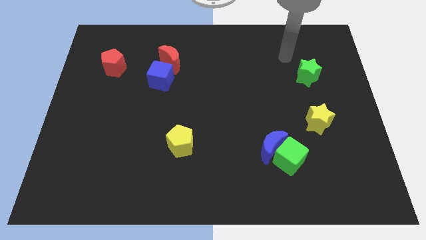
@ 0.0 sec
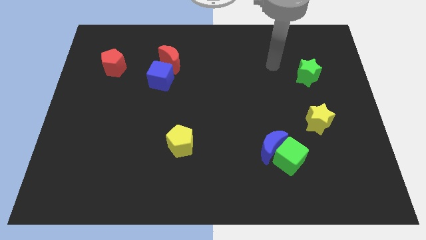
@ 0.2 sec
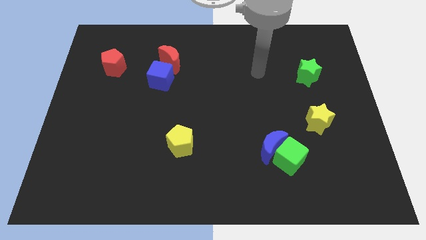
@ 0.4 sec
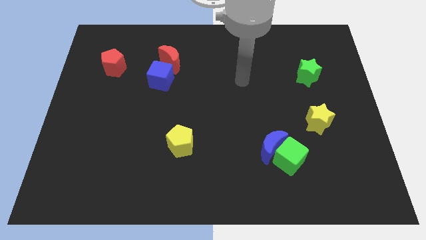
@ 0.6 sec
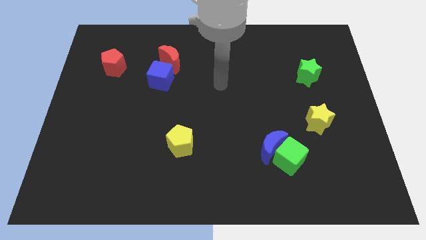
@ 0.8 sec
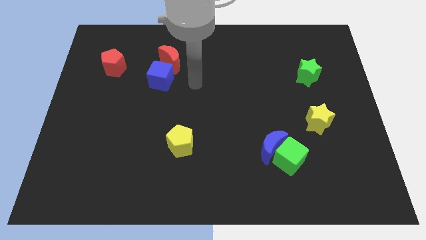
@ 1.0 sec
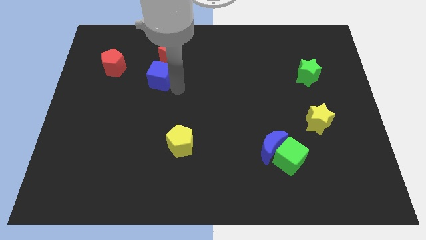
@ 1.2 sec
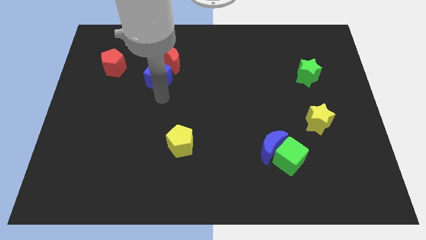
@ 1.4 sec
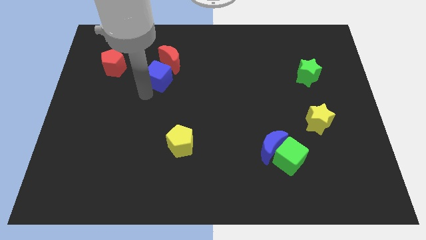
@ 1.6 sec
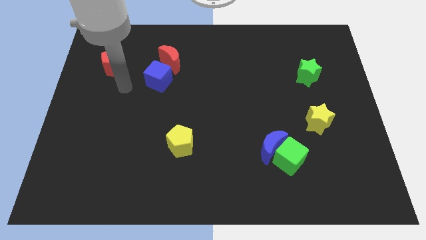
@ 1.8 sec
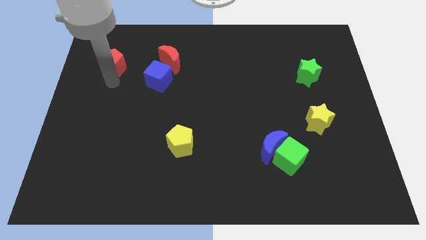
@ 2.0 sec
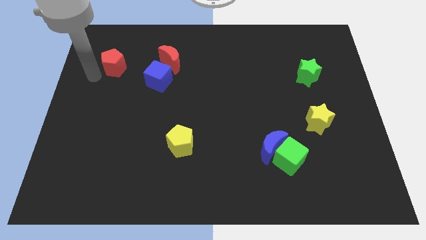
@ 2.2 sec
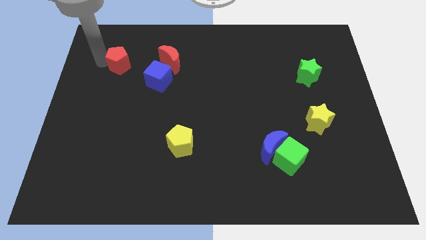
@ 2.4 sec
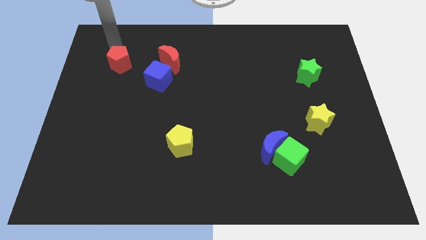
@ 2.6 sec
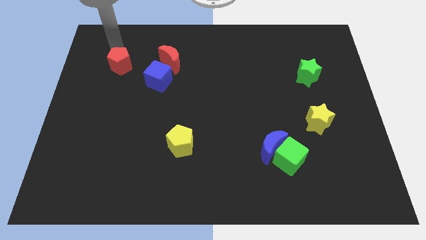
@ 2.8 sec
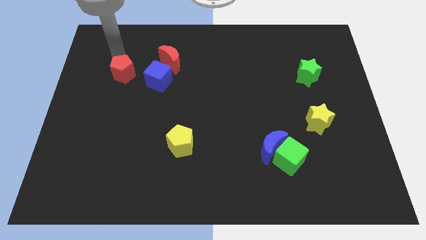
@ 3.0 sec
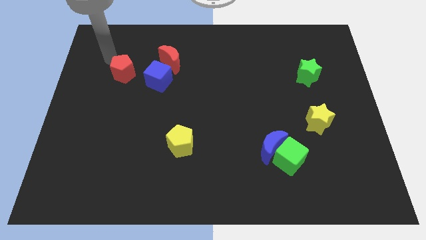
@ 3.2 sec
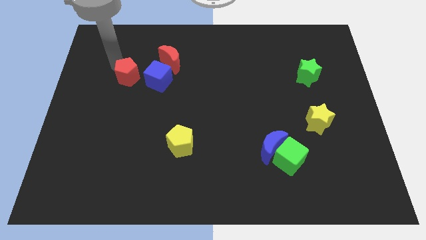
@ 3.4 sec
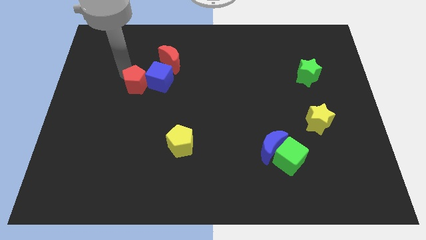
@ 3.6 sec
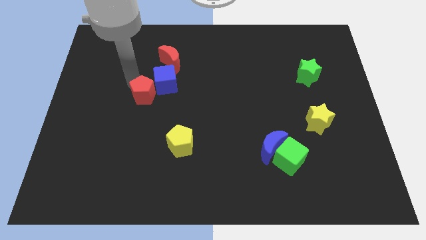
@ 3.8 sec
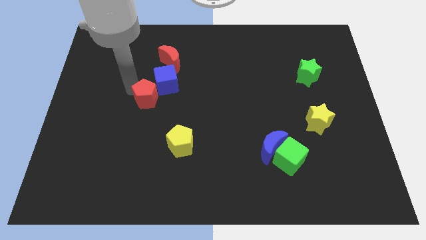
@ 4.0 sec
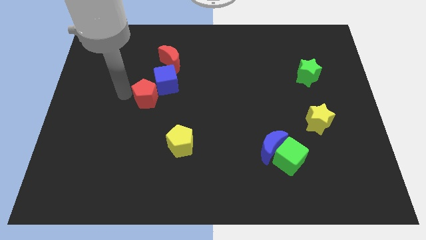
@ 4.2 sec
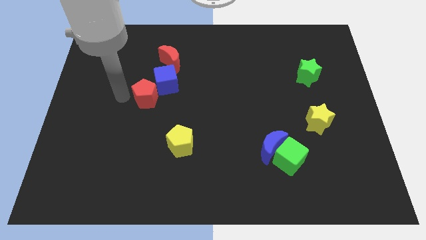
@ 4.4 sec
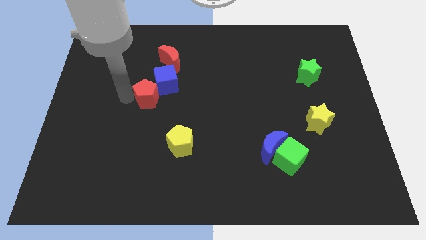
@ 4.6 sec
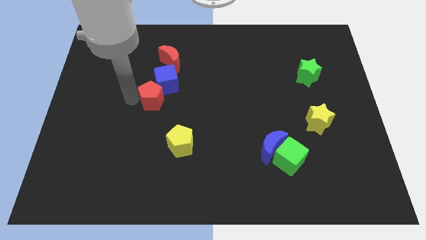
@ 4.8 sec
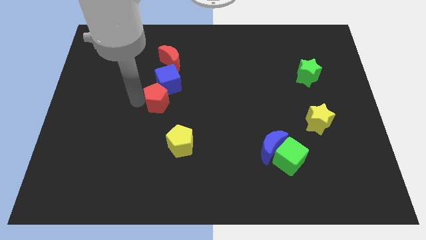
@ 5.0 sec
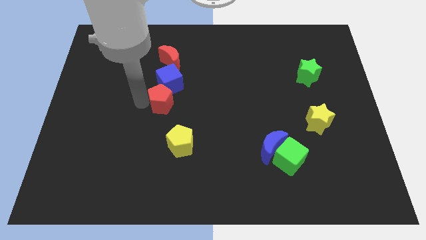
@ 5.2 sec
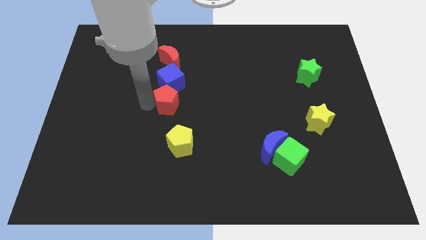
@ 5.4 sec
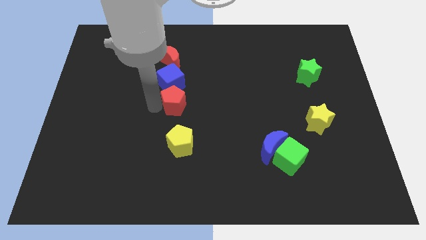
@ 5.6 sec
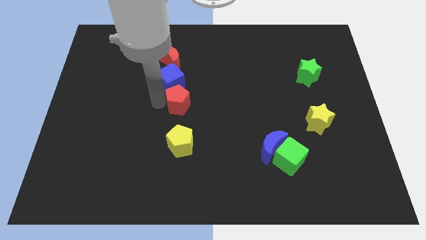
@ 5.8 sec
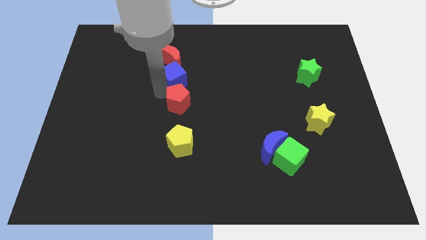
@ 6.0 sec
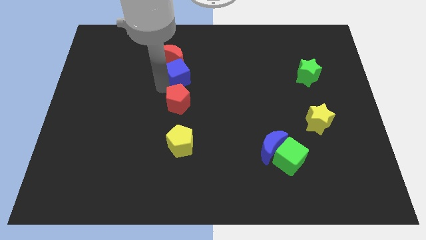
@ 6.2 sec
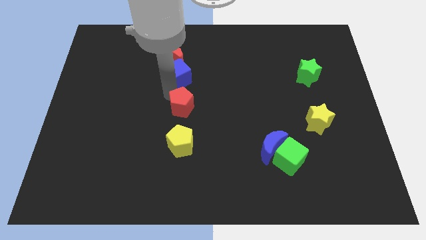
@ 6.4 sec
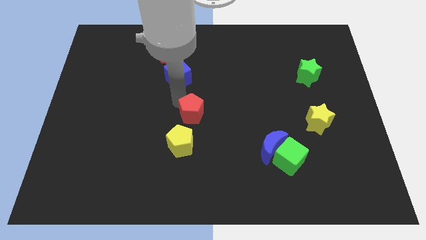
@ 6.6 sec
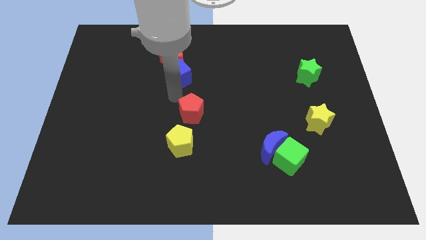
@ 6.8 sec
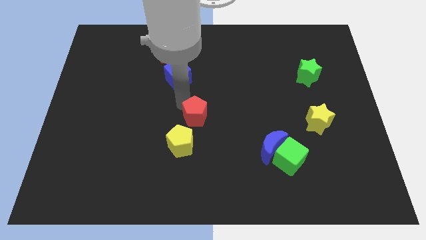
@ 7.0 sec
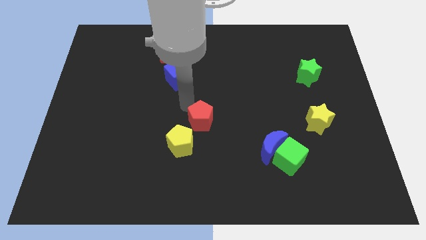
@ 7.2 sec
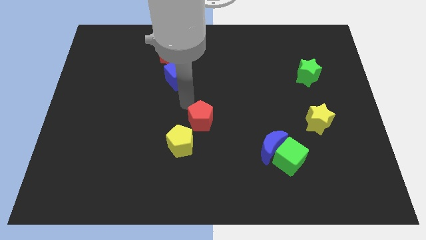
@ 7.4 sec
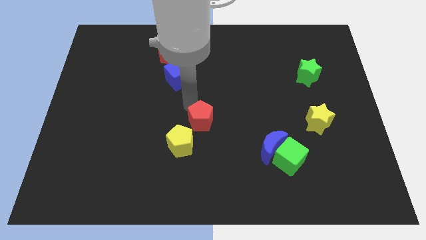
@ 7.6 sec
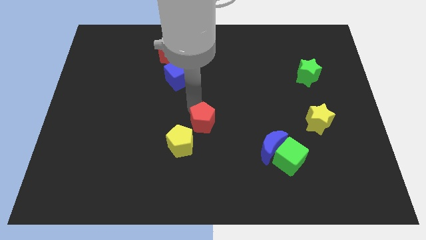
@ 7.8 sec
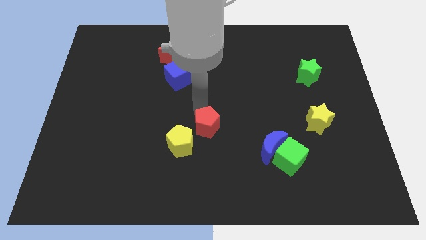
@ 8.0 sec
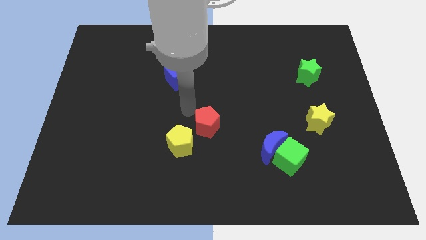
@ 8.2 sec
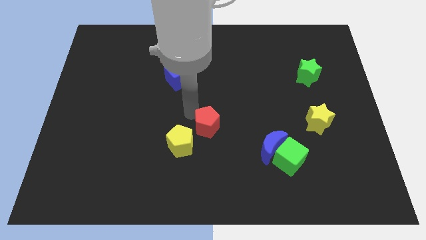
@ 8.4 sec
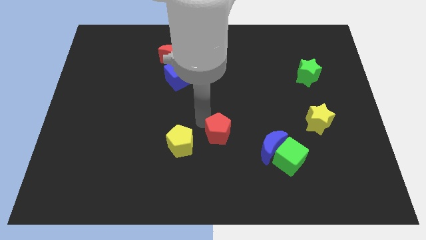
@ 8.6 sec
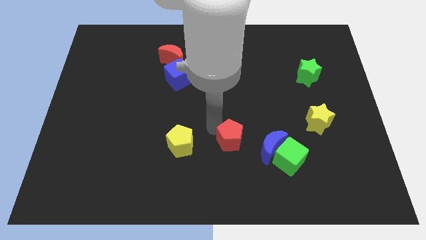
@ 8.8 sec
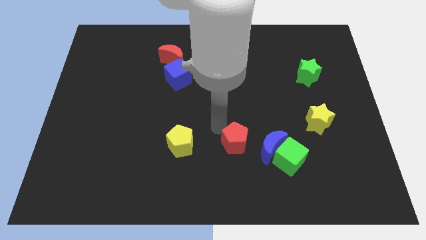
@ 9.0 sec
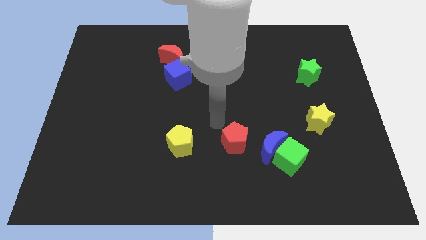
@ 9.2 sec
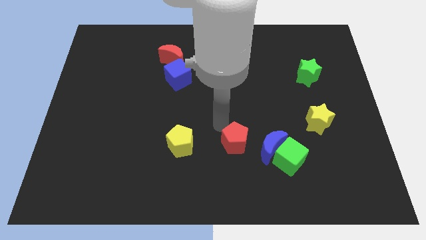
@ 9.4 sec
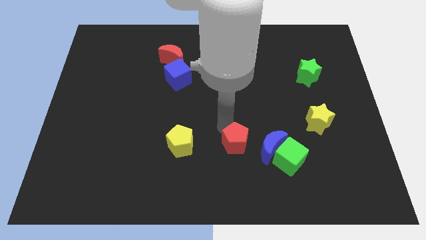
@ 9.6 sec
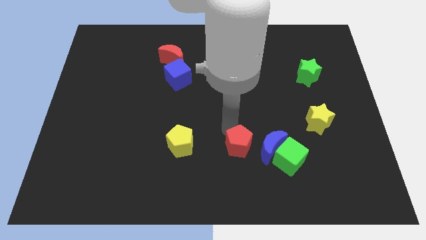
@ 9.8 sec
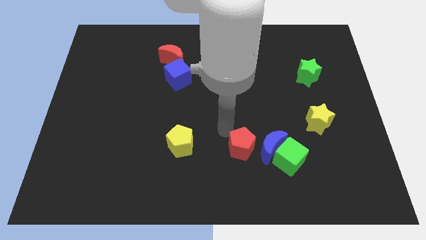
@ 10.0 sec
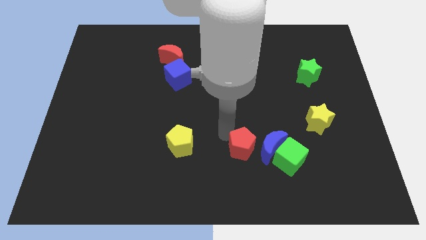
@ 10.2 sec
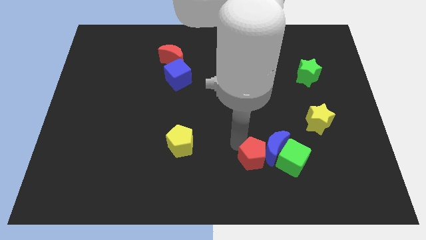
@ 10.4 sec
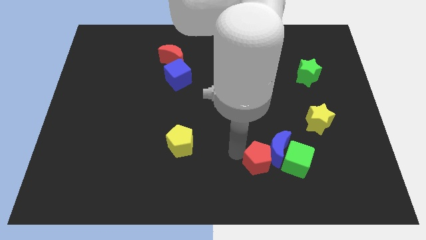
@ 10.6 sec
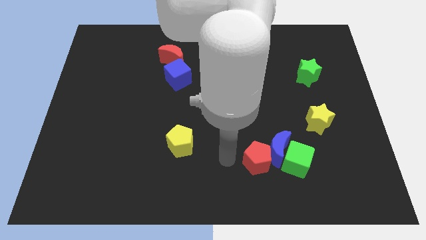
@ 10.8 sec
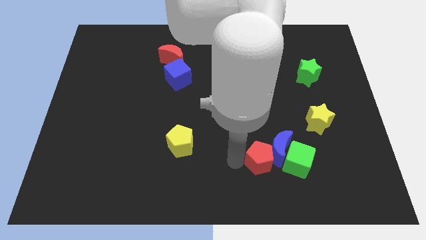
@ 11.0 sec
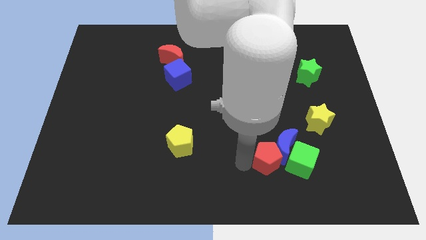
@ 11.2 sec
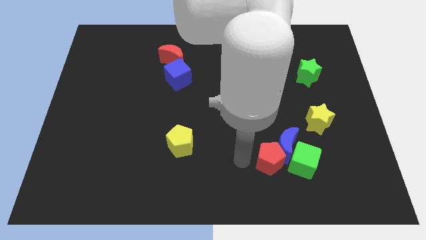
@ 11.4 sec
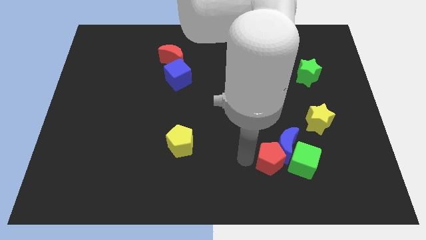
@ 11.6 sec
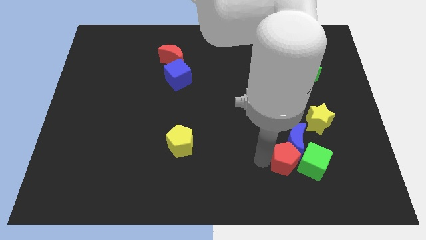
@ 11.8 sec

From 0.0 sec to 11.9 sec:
slide the red pentagon towards the green cube
